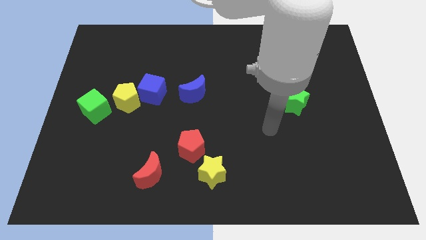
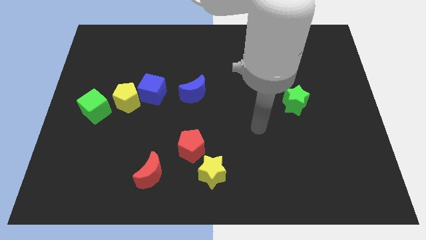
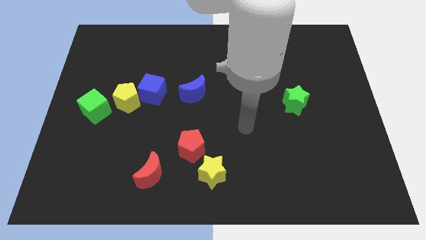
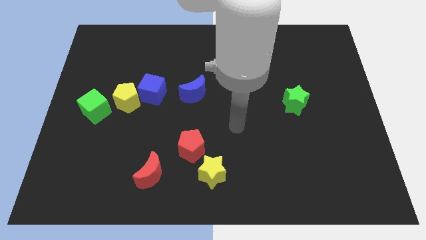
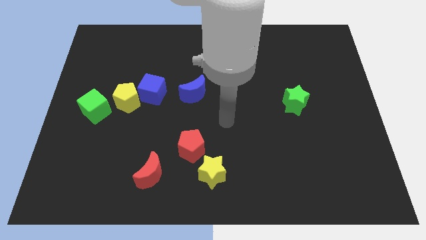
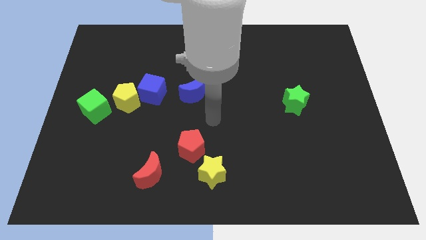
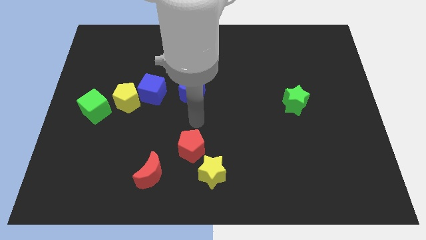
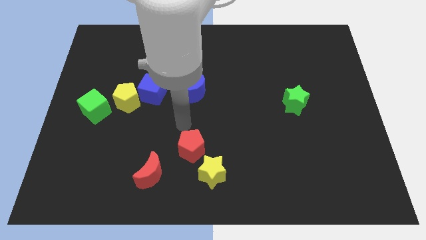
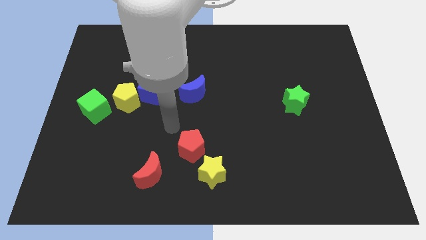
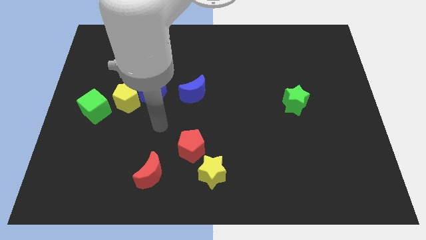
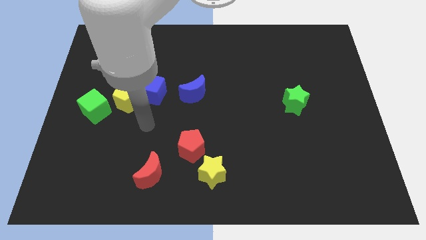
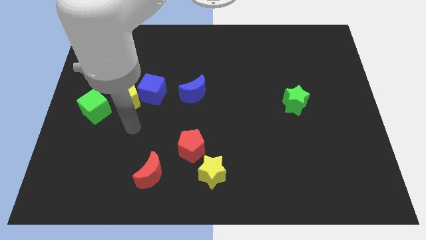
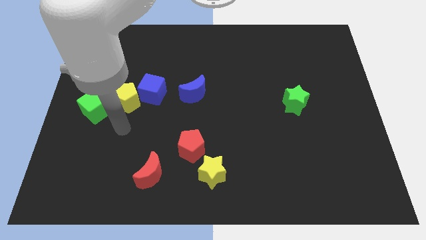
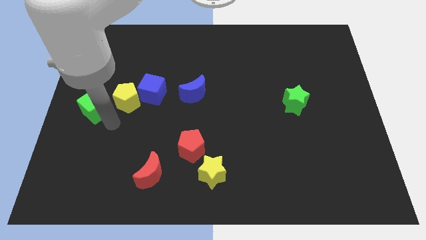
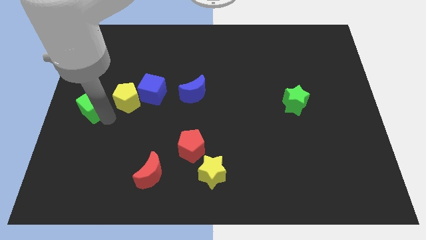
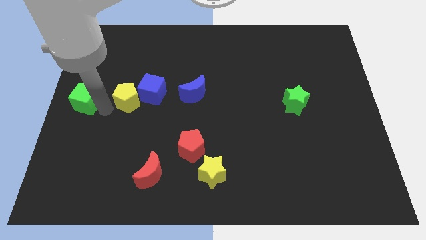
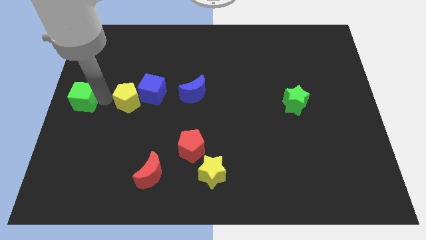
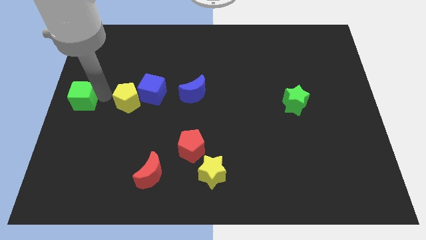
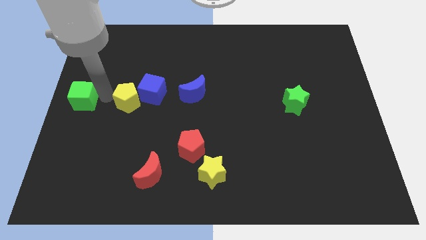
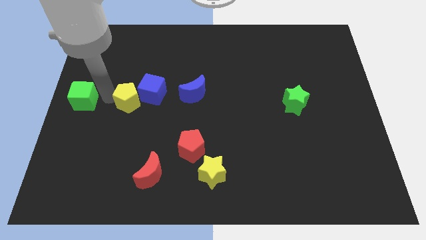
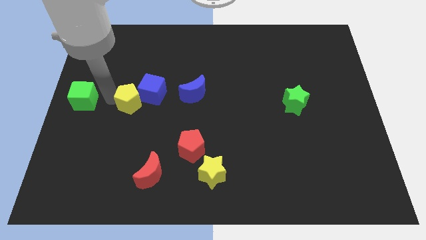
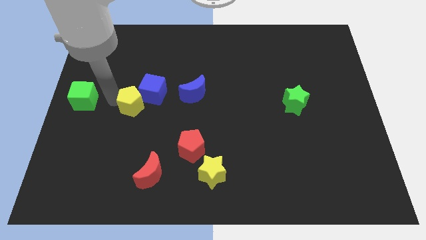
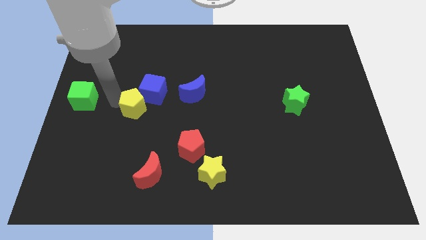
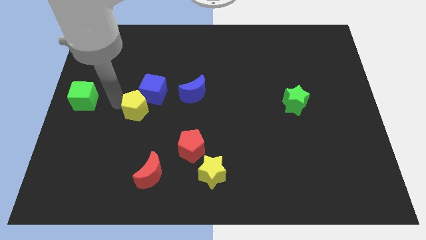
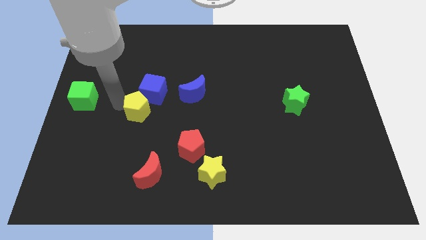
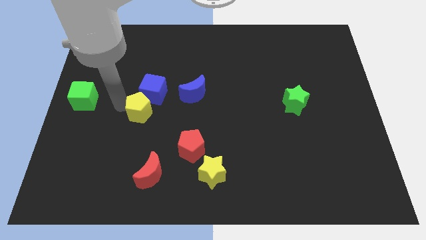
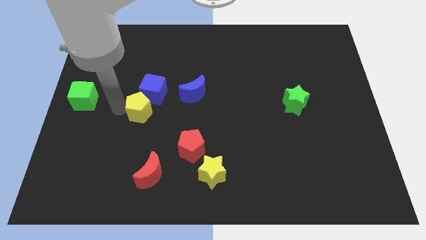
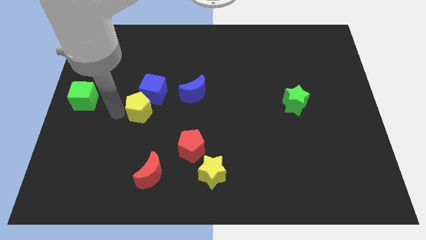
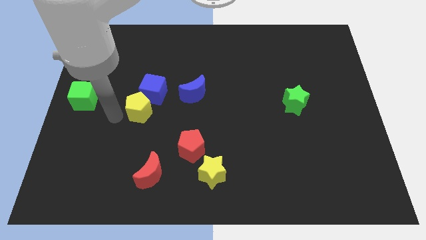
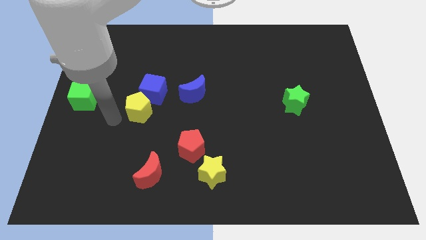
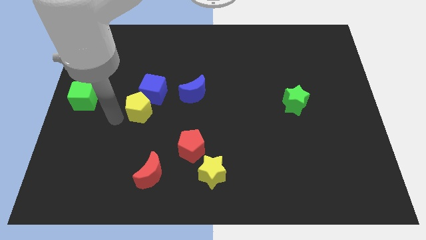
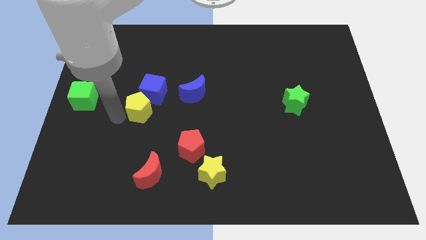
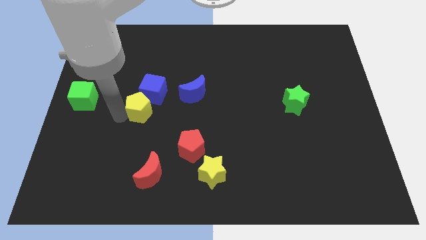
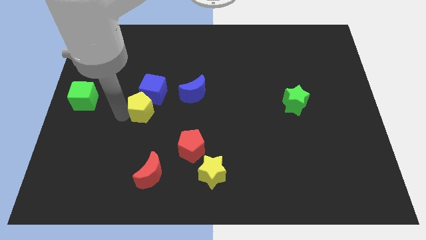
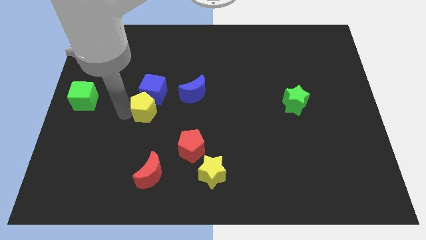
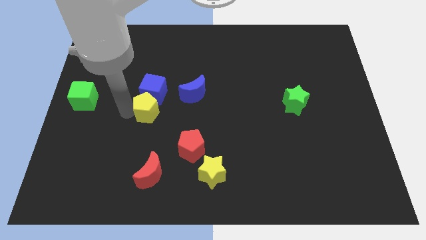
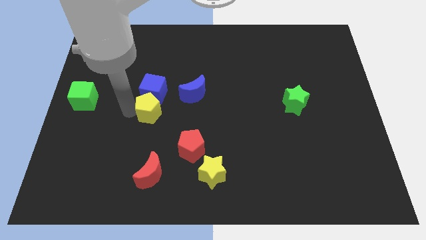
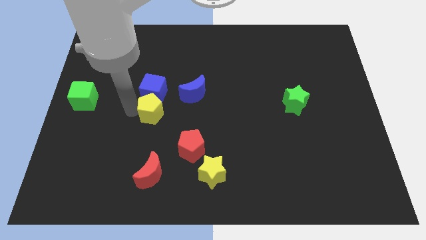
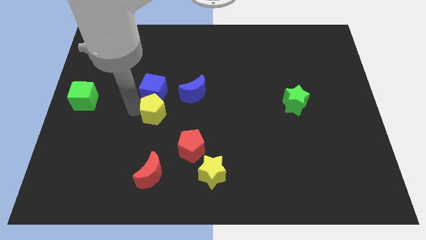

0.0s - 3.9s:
separate the yellow pentagon from the blue cube and green cube

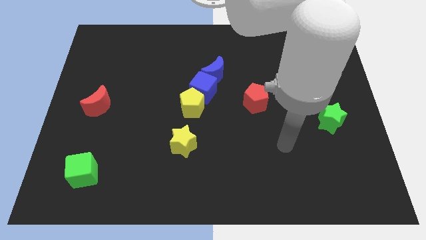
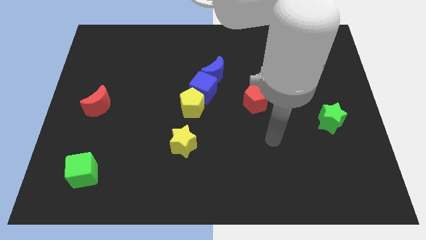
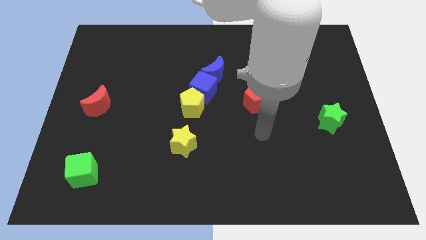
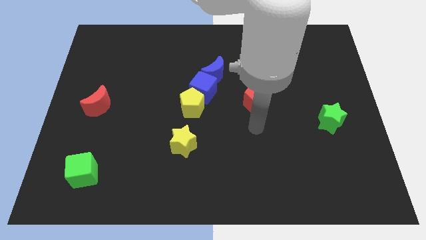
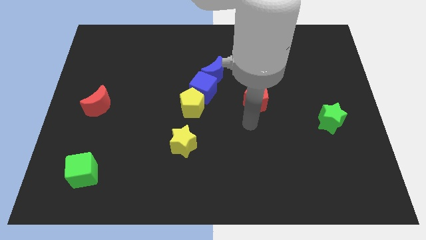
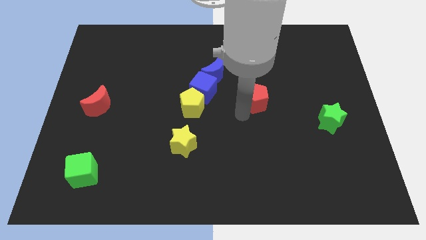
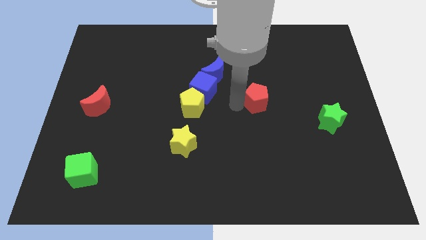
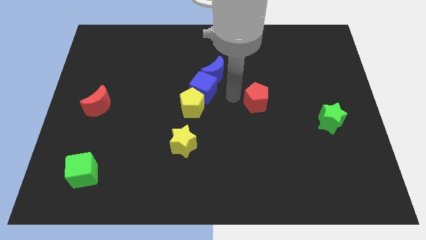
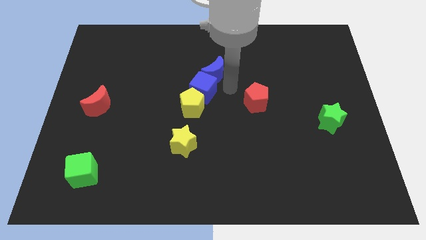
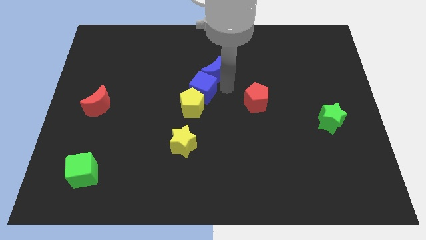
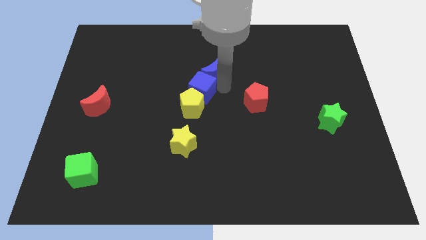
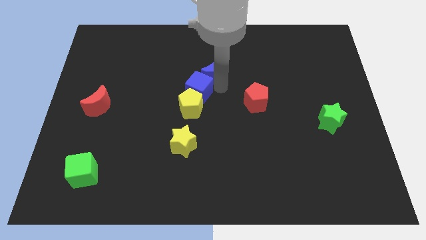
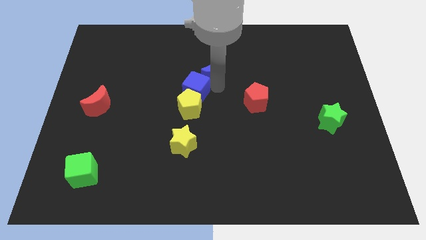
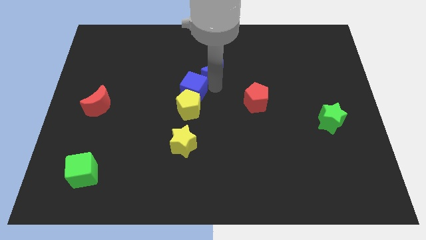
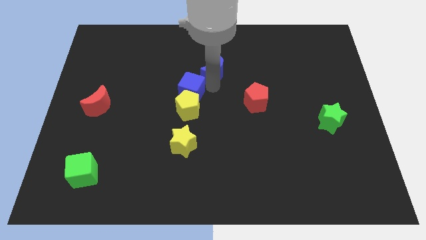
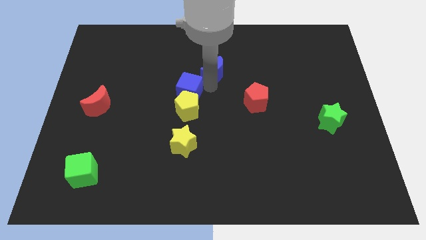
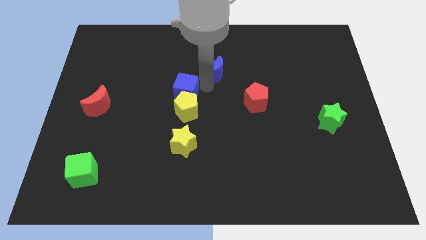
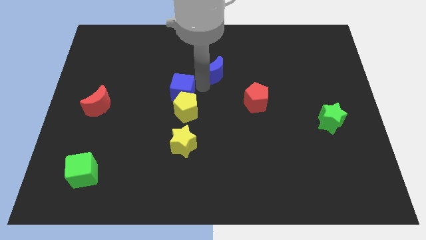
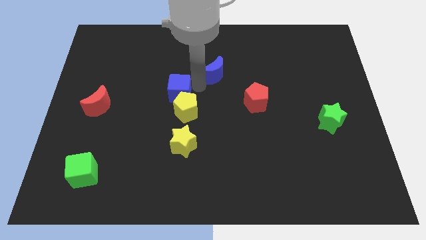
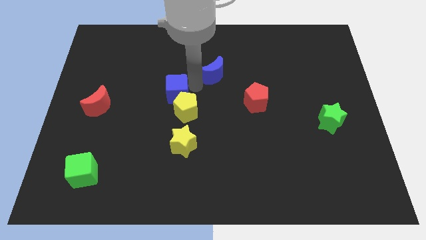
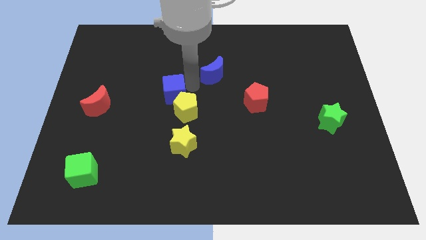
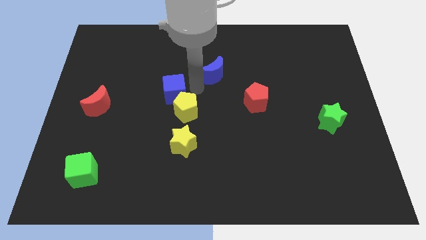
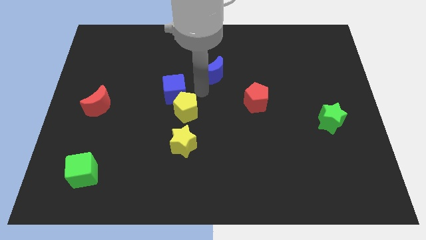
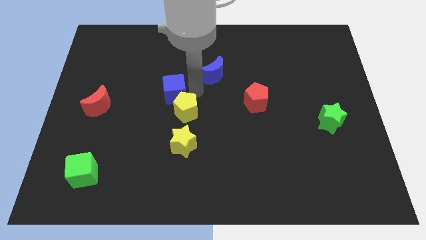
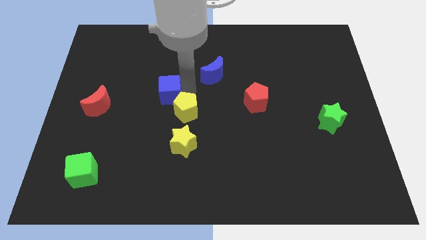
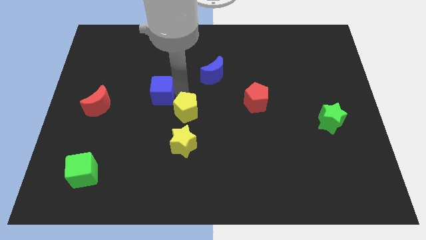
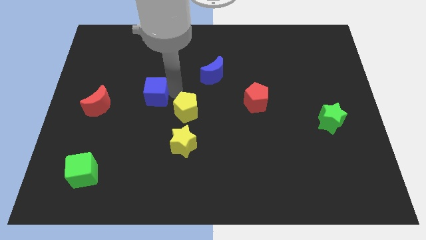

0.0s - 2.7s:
pull the blue cube apart from the yellow pentagon and blue moon

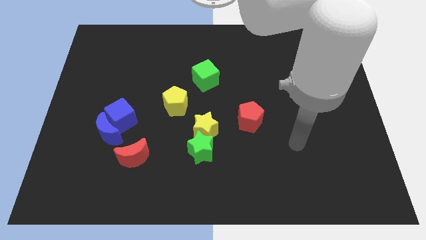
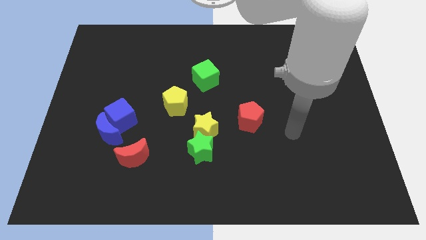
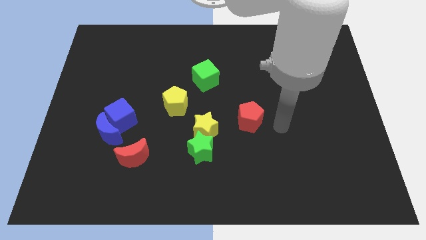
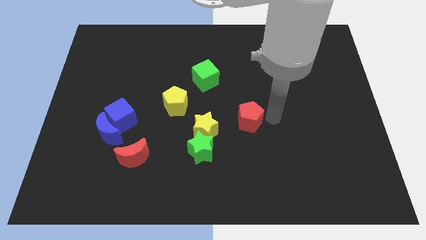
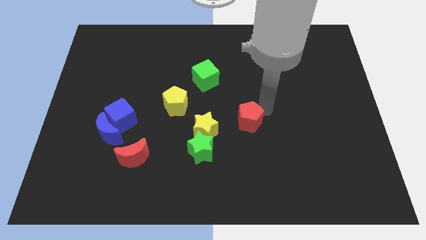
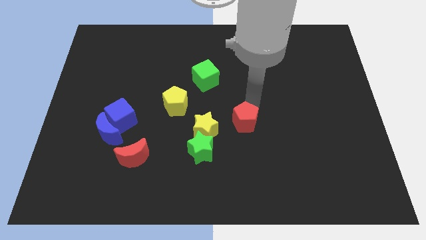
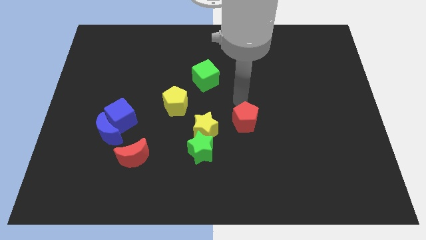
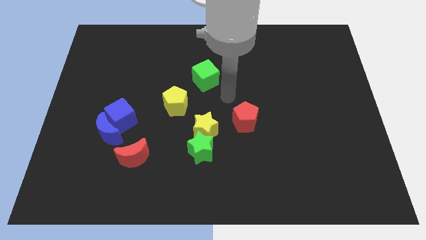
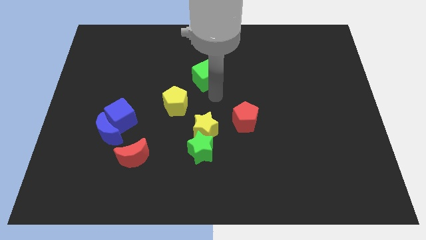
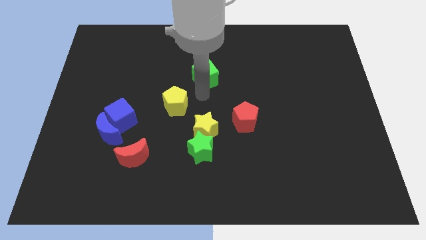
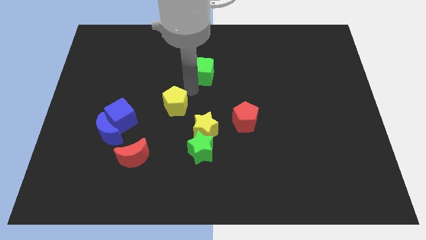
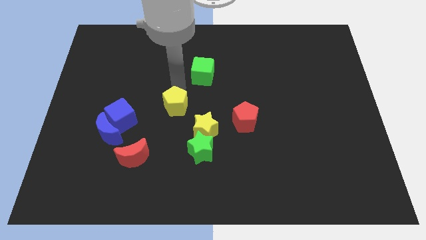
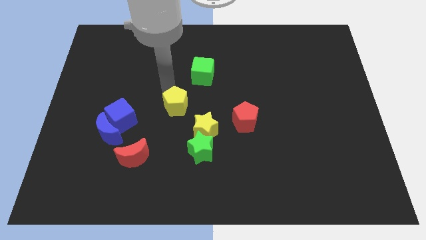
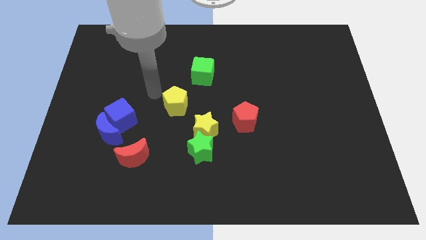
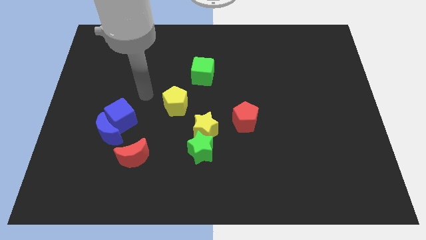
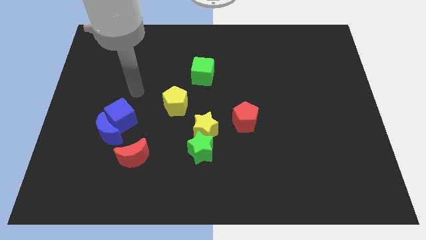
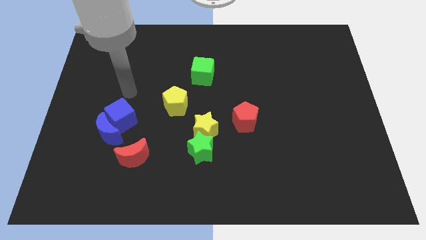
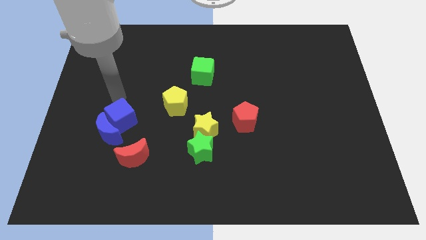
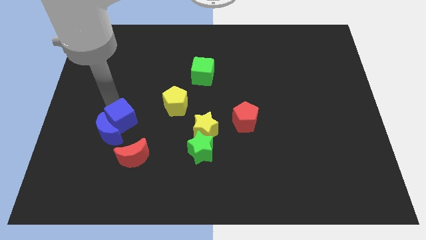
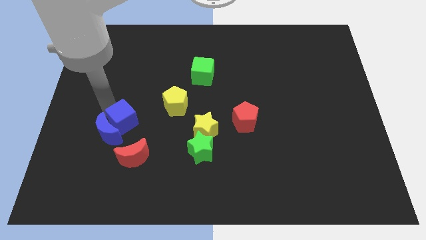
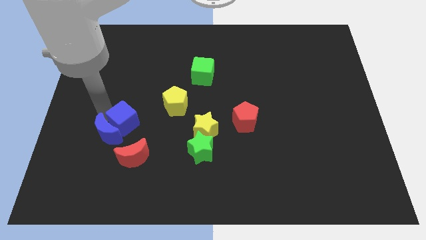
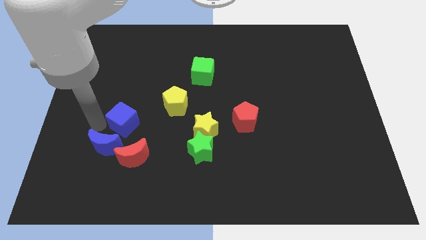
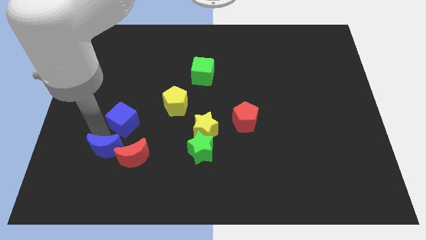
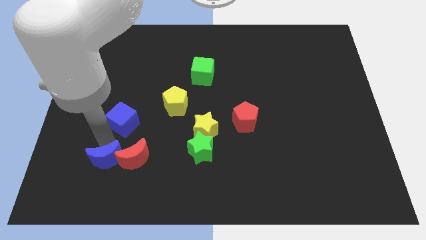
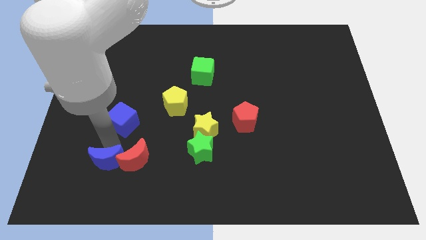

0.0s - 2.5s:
pull the blue cube apart from the blue moon

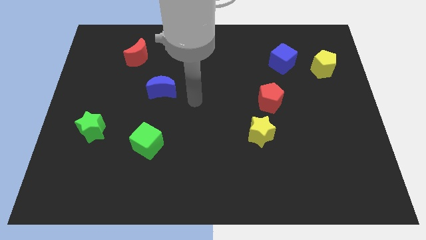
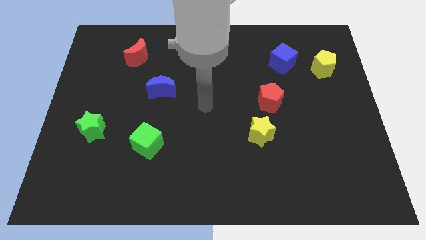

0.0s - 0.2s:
separate the red pentagon from the yellow star
